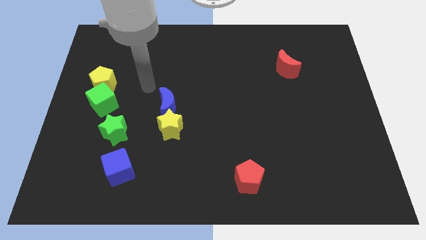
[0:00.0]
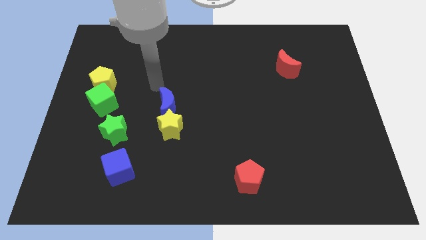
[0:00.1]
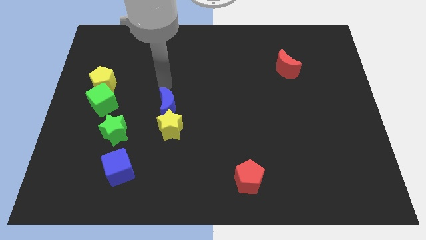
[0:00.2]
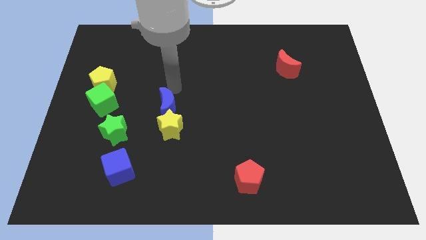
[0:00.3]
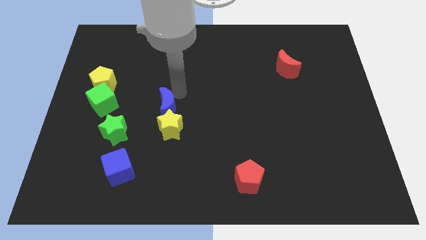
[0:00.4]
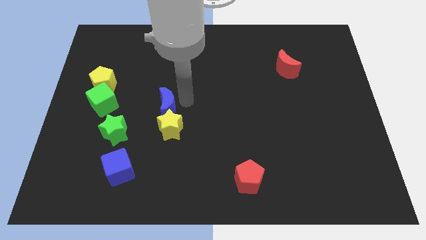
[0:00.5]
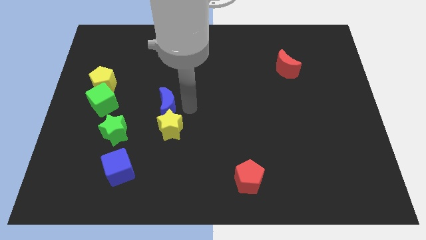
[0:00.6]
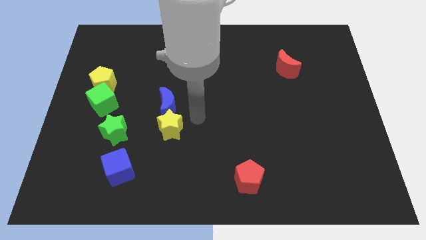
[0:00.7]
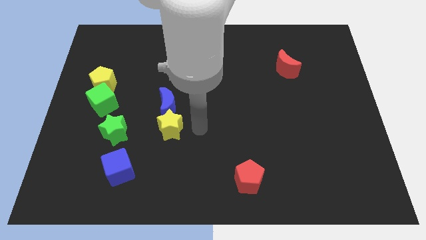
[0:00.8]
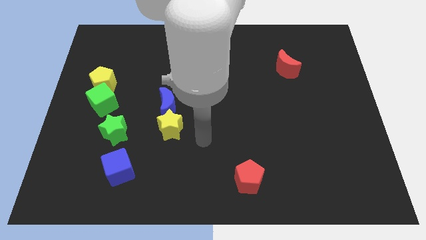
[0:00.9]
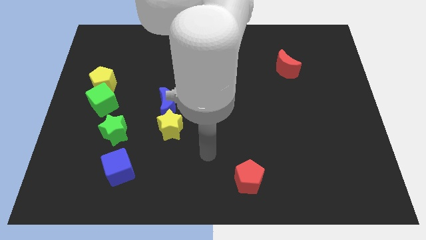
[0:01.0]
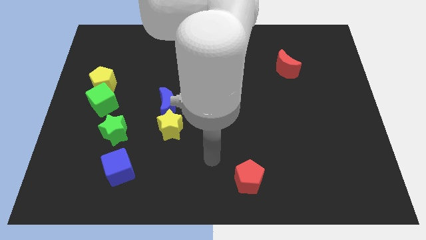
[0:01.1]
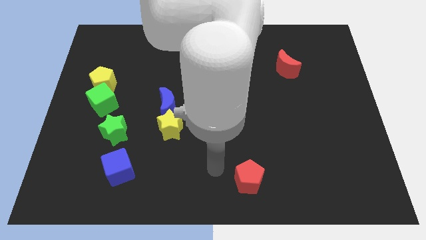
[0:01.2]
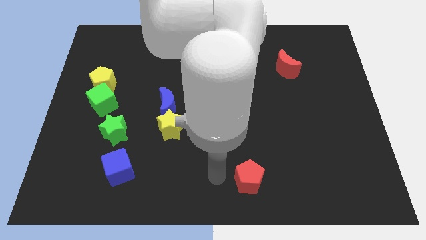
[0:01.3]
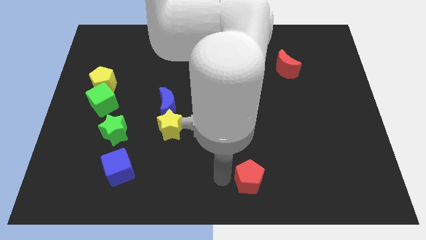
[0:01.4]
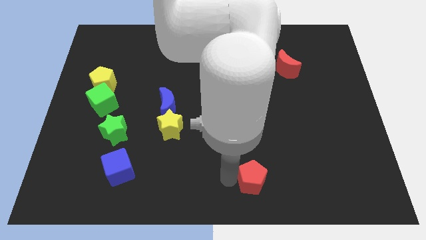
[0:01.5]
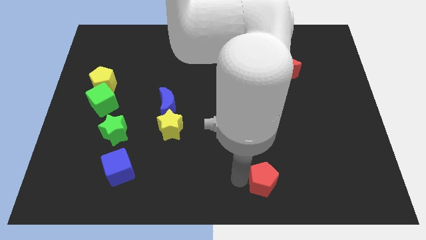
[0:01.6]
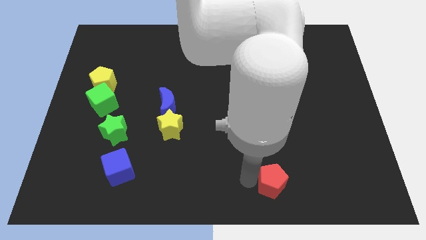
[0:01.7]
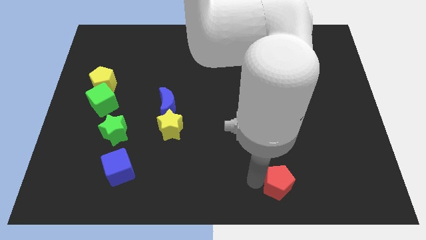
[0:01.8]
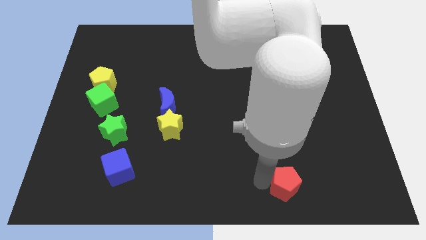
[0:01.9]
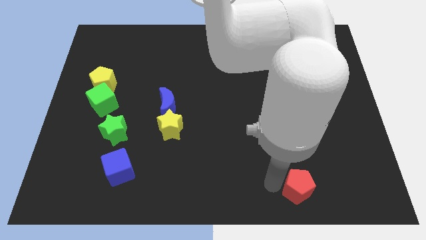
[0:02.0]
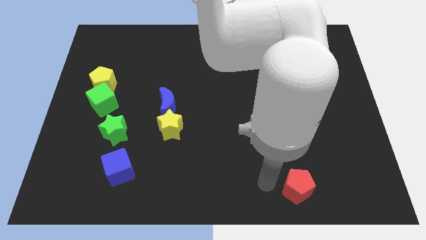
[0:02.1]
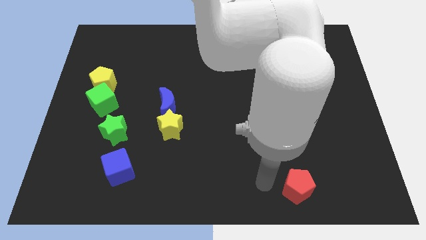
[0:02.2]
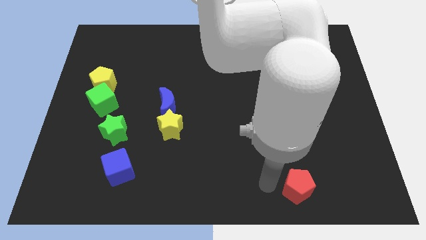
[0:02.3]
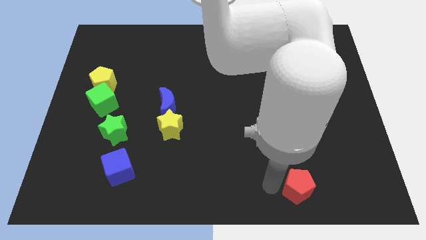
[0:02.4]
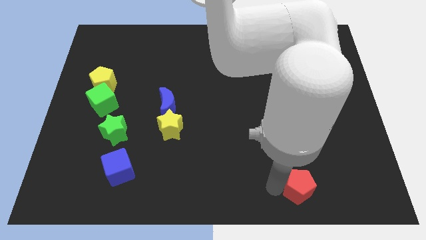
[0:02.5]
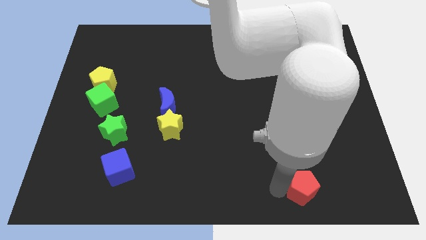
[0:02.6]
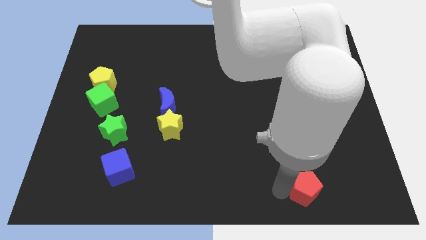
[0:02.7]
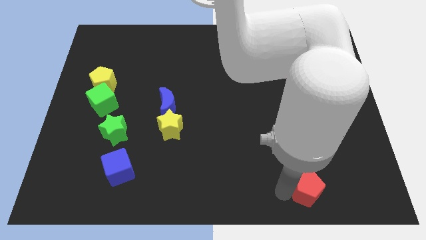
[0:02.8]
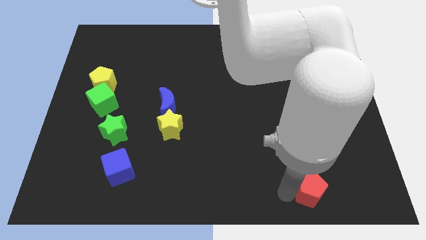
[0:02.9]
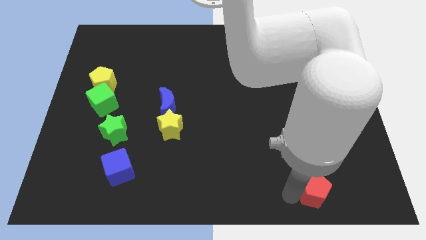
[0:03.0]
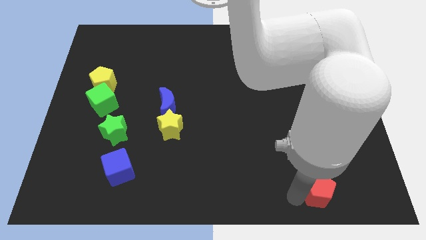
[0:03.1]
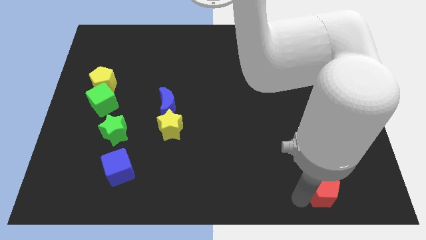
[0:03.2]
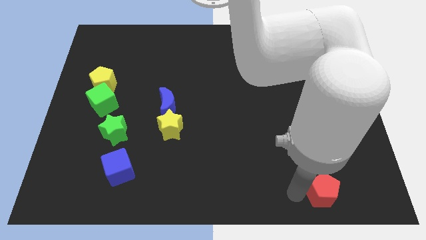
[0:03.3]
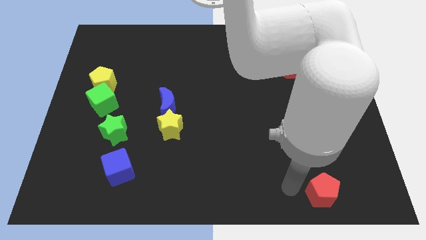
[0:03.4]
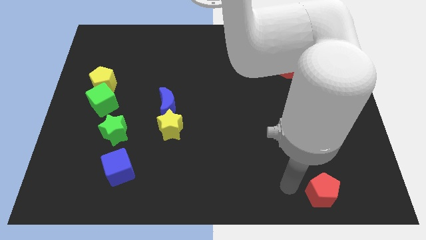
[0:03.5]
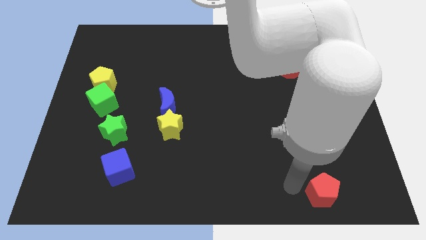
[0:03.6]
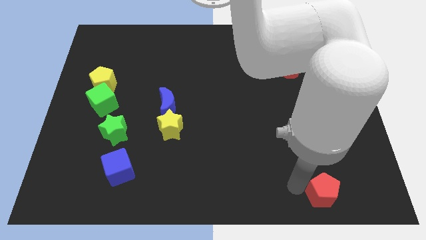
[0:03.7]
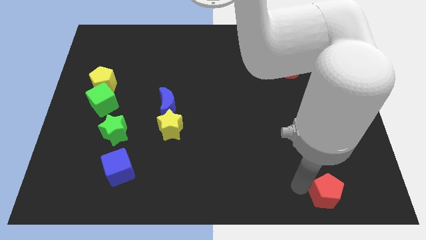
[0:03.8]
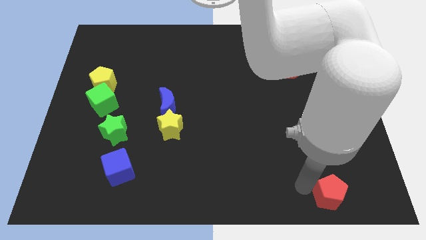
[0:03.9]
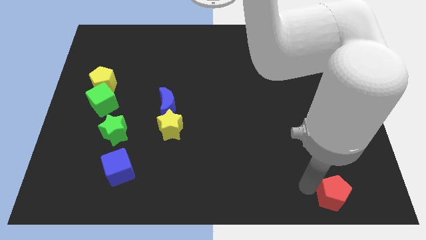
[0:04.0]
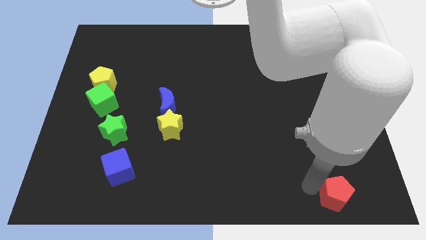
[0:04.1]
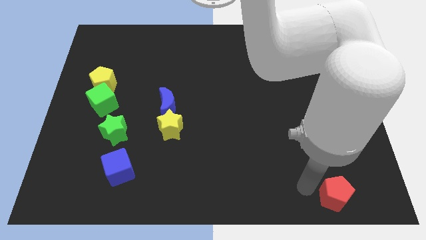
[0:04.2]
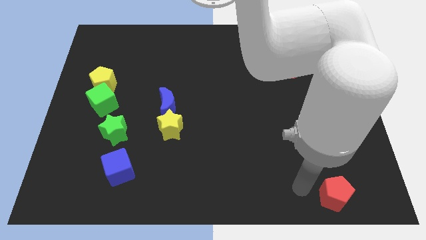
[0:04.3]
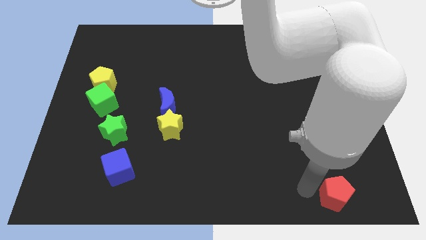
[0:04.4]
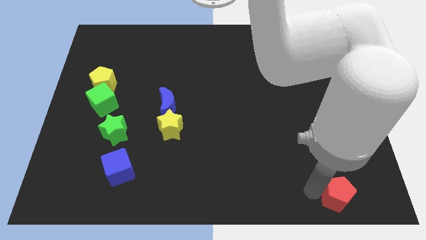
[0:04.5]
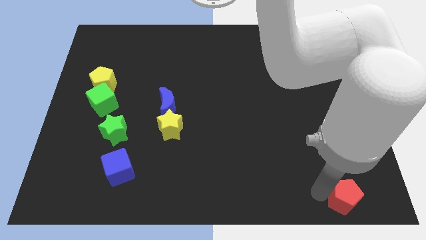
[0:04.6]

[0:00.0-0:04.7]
put the red pentagon to the lower right corner

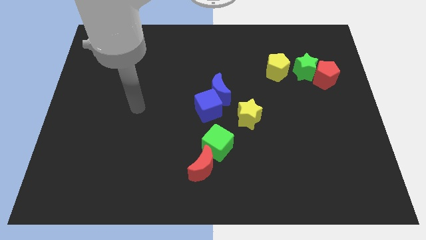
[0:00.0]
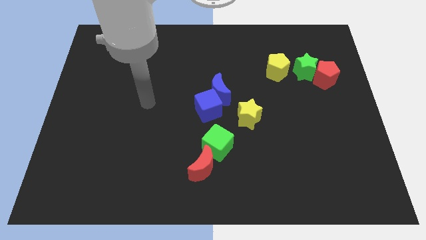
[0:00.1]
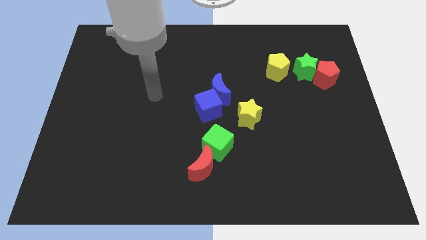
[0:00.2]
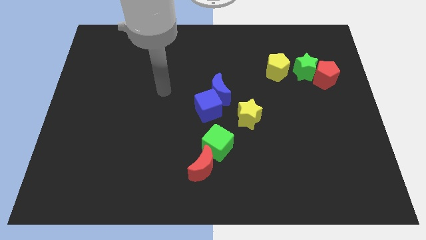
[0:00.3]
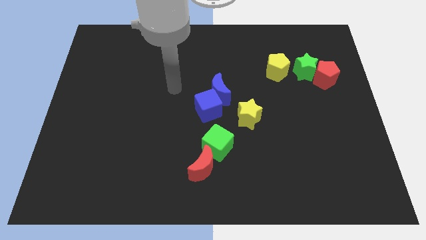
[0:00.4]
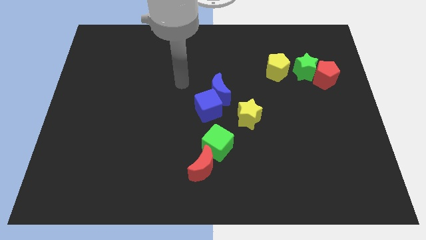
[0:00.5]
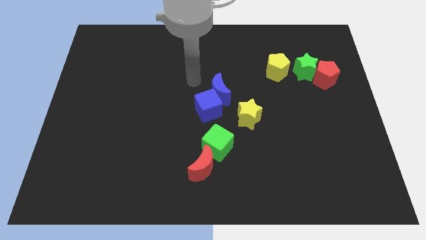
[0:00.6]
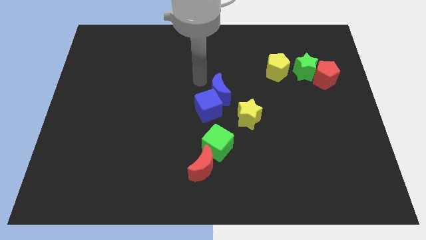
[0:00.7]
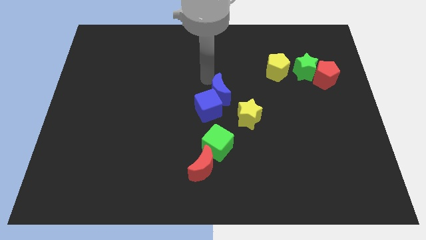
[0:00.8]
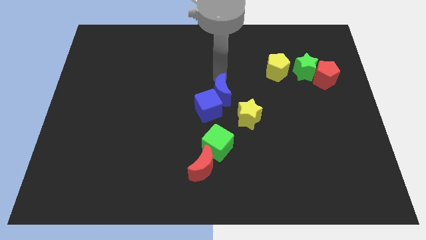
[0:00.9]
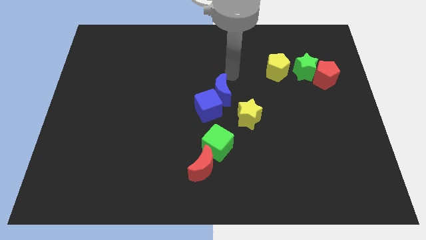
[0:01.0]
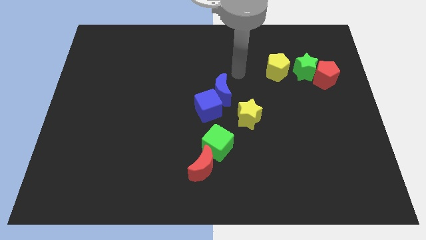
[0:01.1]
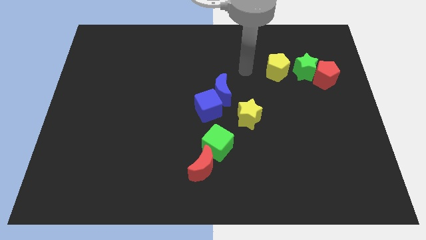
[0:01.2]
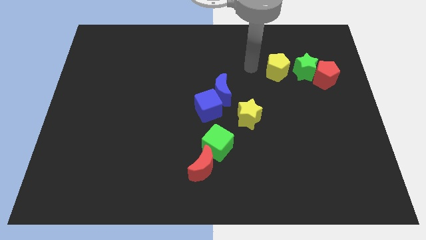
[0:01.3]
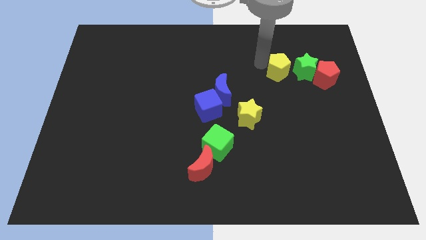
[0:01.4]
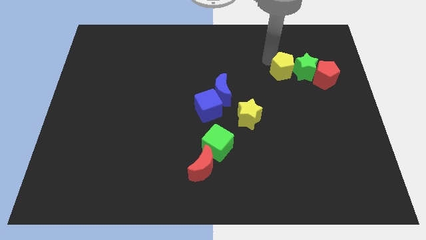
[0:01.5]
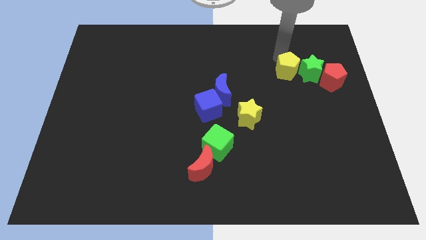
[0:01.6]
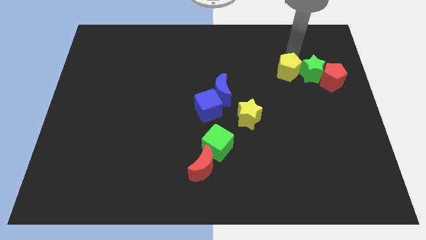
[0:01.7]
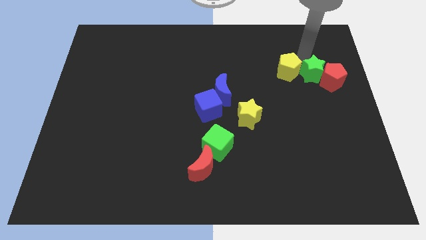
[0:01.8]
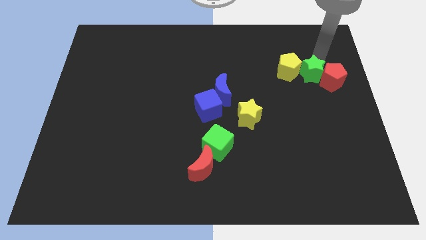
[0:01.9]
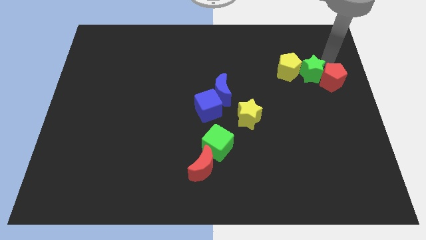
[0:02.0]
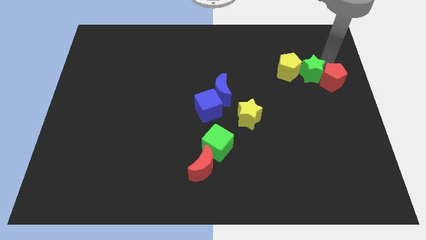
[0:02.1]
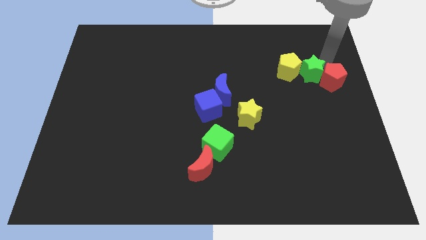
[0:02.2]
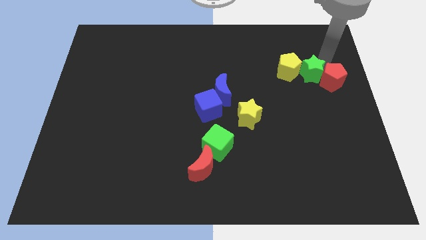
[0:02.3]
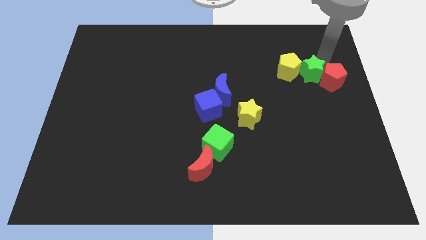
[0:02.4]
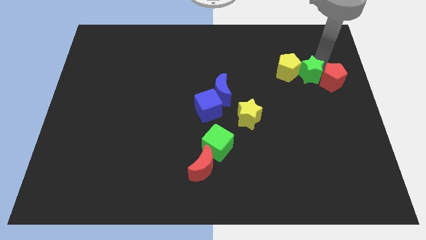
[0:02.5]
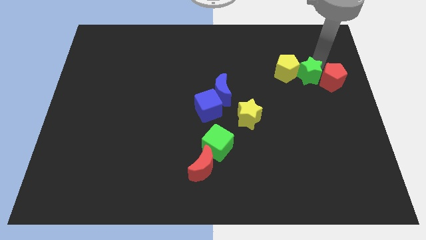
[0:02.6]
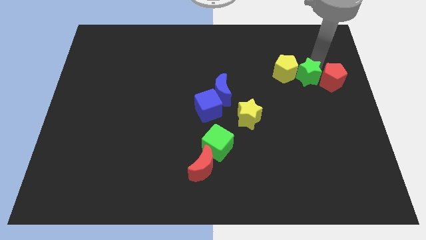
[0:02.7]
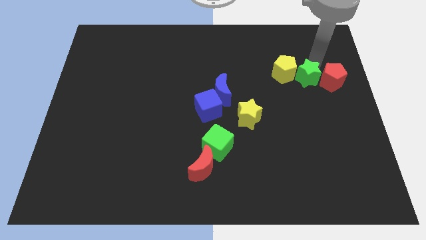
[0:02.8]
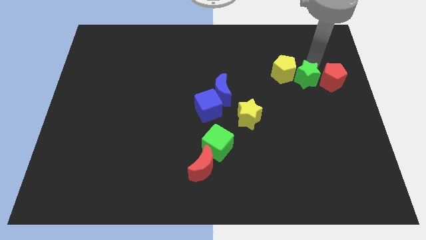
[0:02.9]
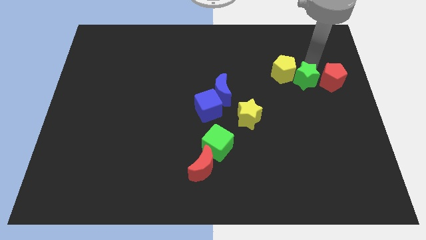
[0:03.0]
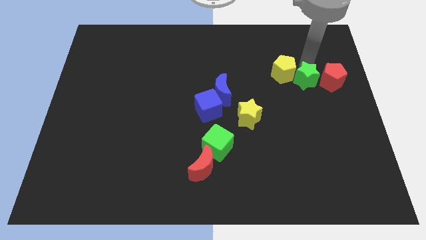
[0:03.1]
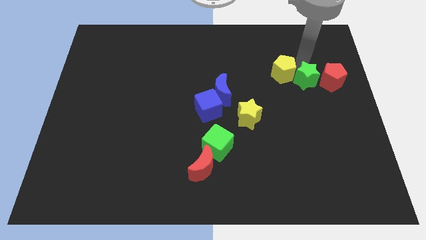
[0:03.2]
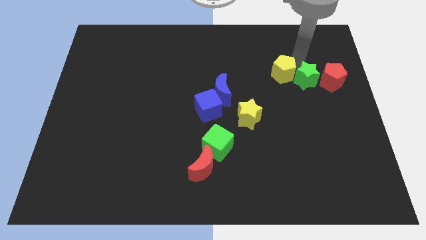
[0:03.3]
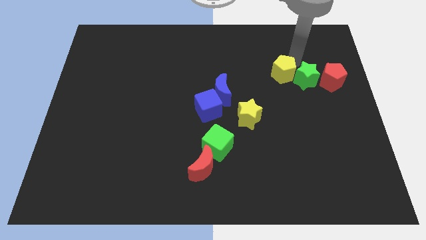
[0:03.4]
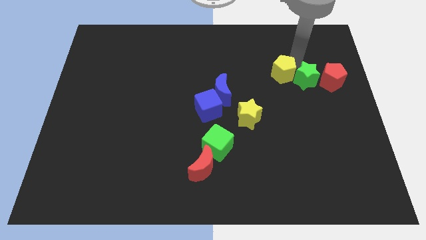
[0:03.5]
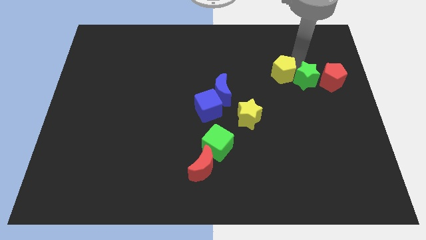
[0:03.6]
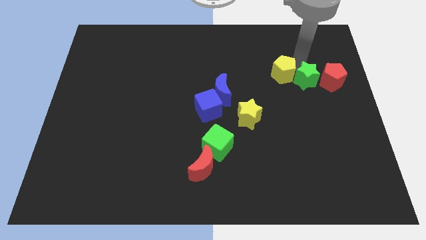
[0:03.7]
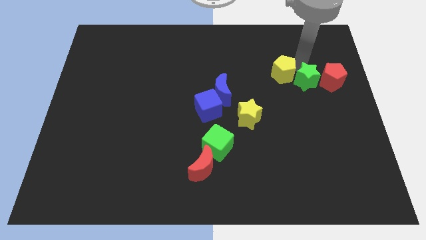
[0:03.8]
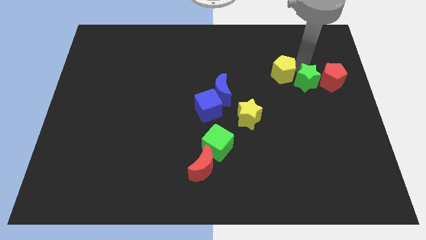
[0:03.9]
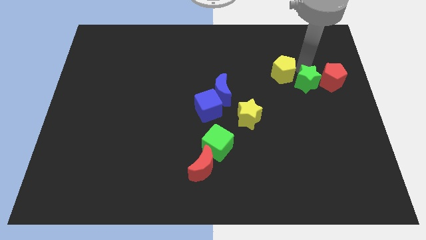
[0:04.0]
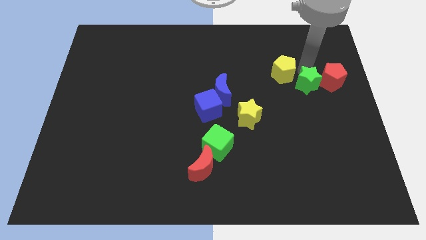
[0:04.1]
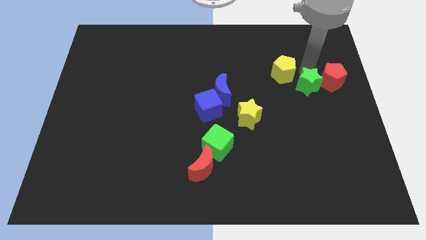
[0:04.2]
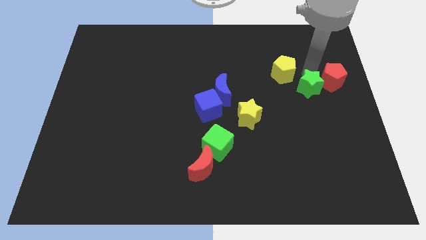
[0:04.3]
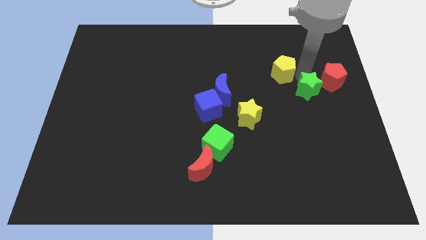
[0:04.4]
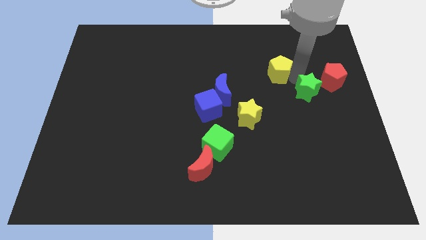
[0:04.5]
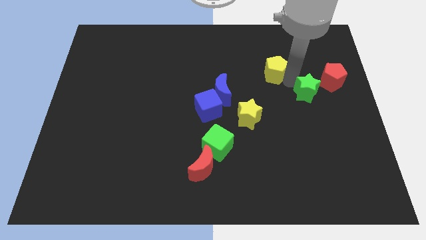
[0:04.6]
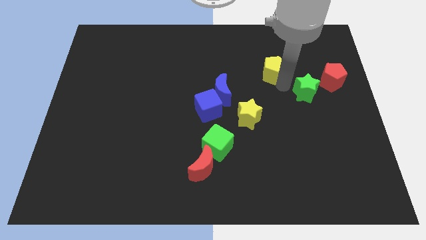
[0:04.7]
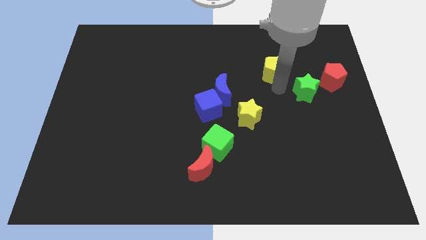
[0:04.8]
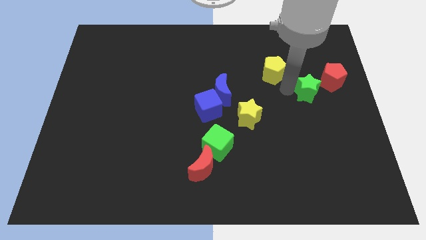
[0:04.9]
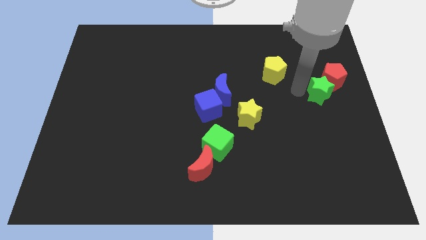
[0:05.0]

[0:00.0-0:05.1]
slide the green star to the right side of the board
